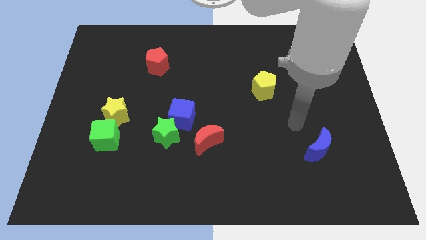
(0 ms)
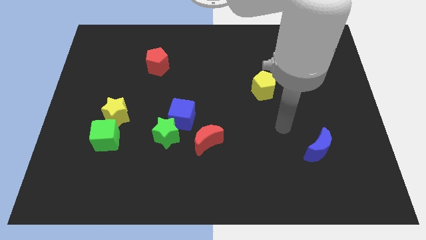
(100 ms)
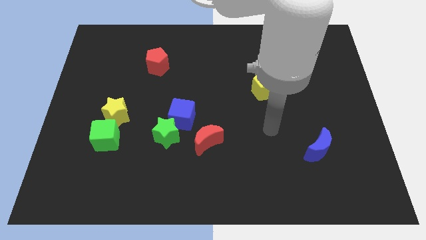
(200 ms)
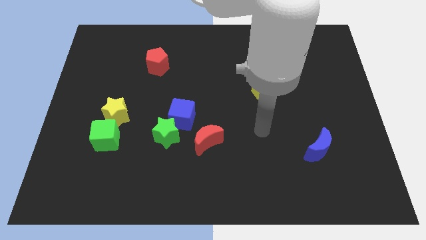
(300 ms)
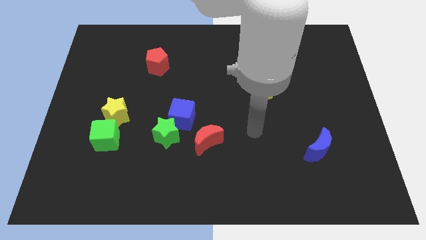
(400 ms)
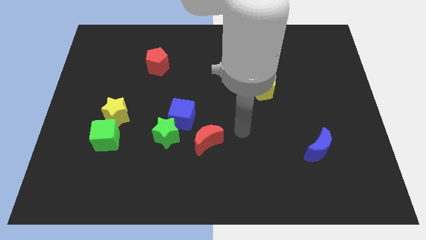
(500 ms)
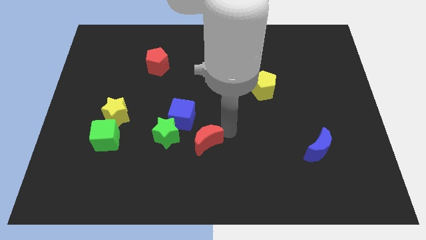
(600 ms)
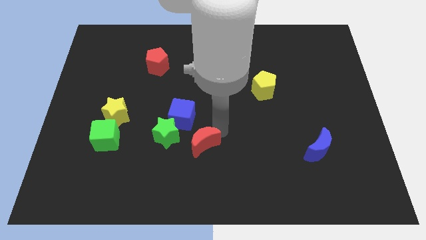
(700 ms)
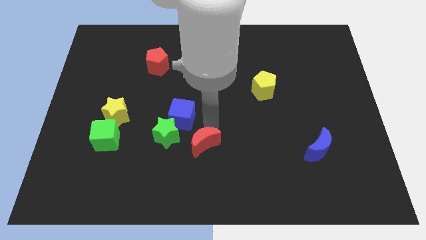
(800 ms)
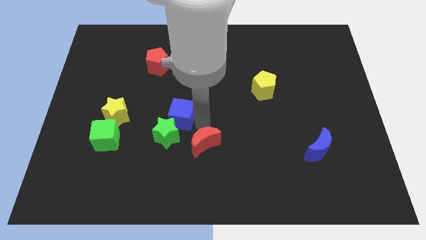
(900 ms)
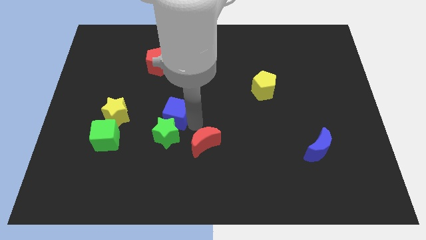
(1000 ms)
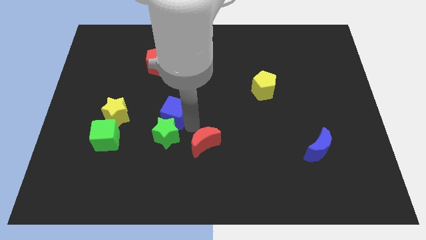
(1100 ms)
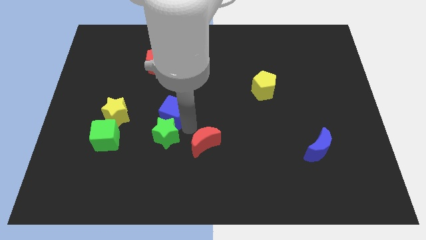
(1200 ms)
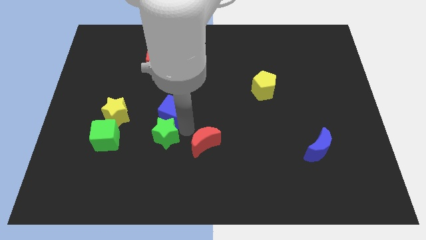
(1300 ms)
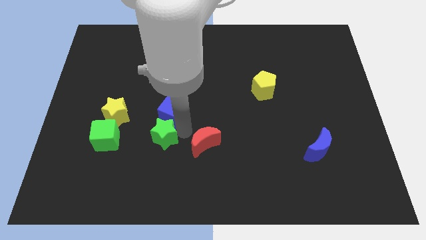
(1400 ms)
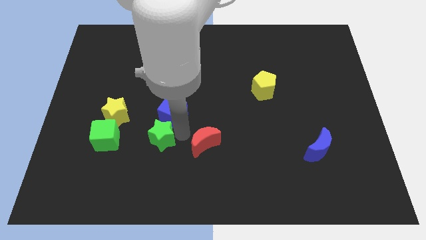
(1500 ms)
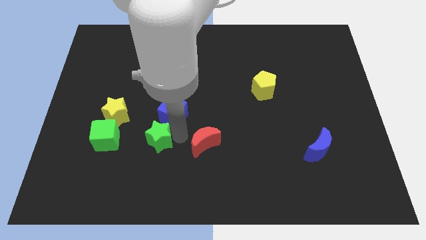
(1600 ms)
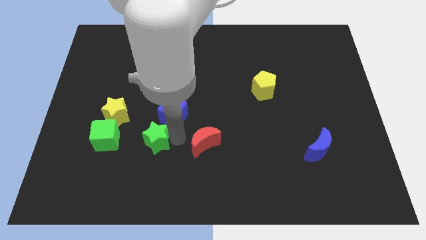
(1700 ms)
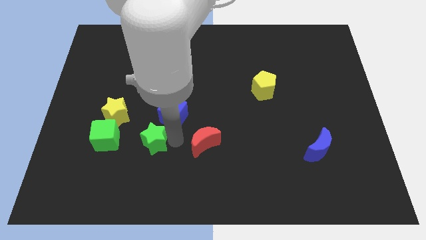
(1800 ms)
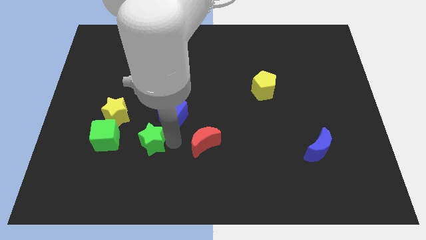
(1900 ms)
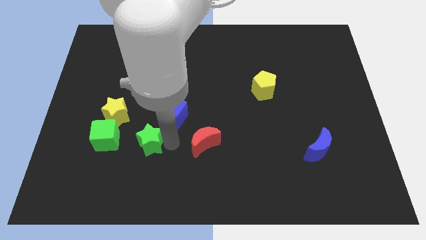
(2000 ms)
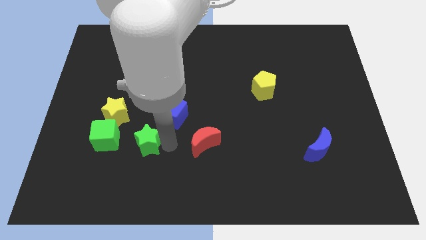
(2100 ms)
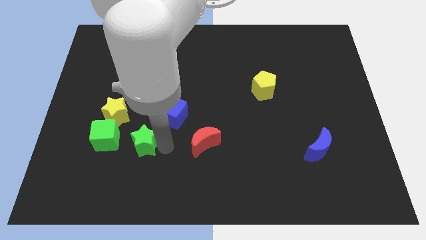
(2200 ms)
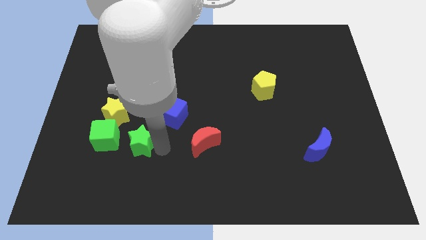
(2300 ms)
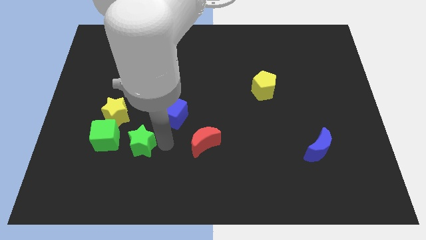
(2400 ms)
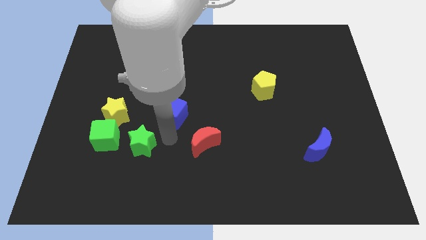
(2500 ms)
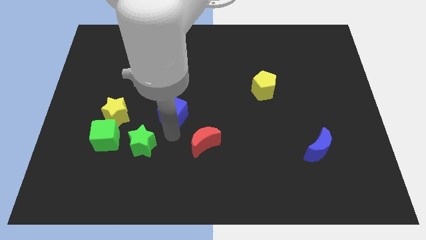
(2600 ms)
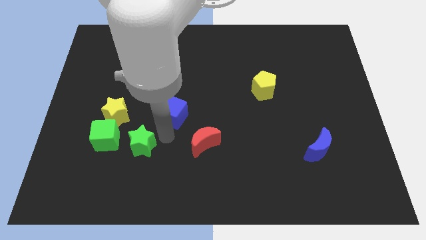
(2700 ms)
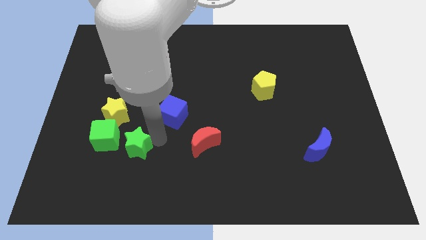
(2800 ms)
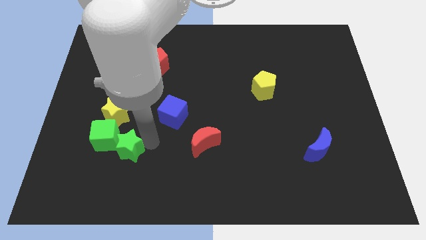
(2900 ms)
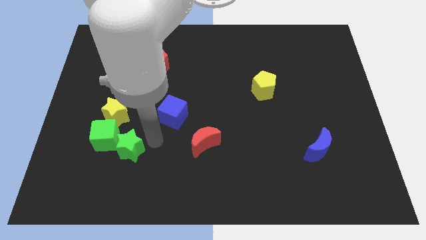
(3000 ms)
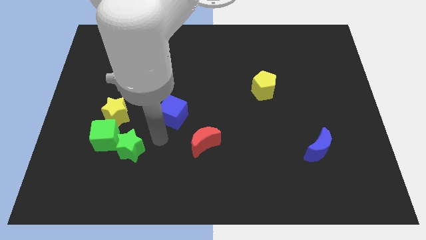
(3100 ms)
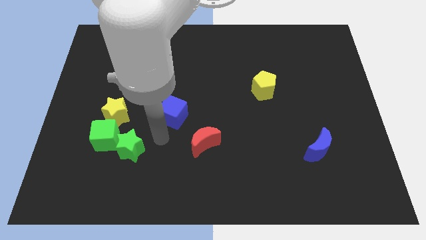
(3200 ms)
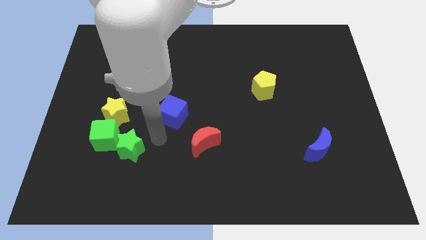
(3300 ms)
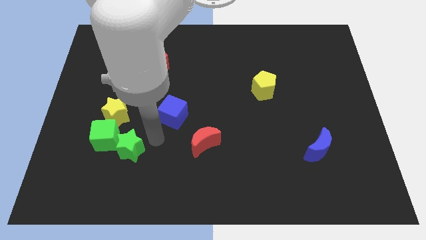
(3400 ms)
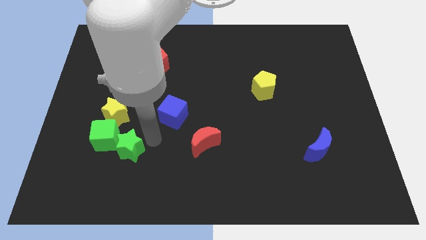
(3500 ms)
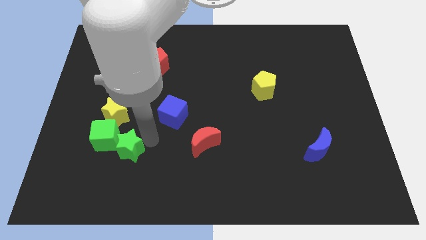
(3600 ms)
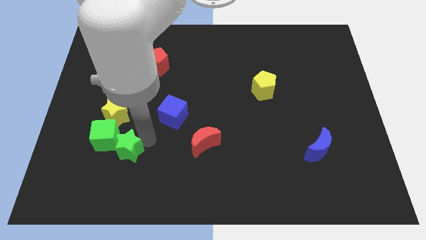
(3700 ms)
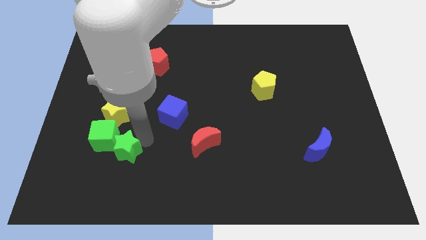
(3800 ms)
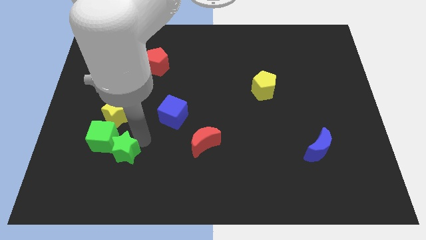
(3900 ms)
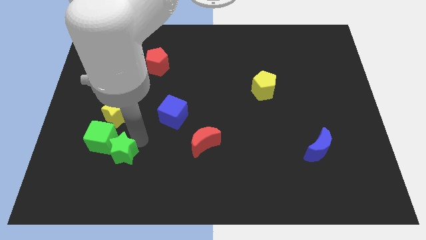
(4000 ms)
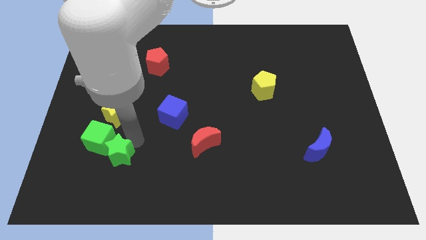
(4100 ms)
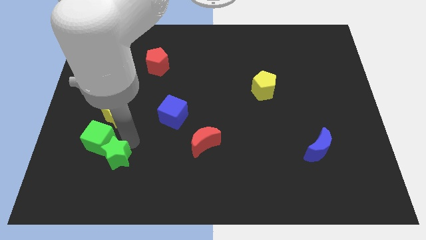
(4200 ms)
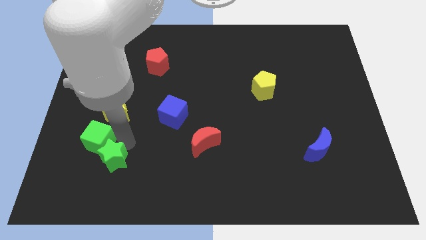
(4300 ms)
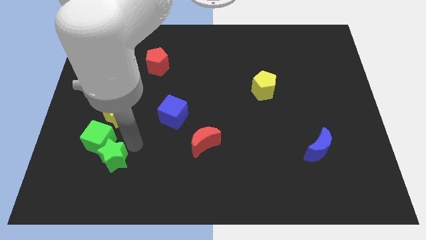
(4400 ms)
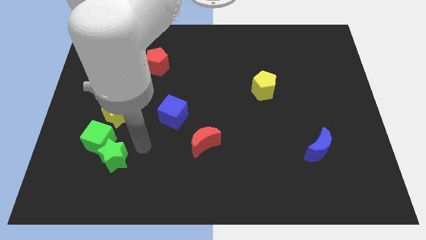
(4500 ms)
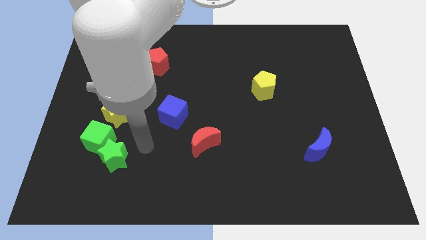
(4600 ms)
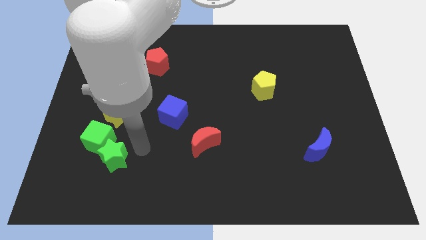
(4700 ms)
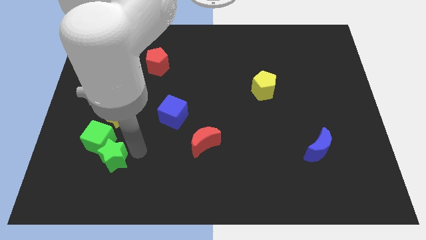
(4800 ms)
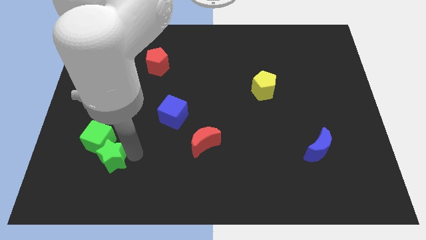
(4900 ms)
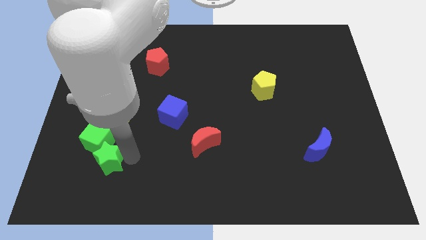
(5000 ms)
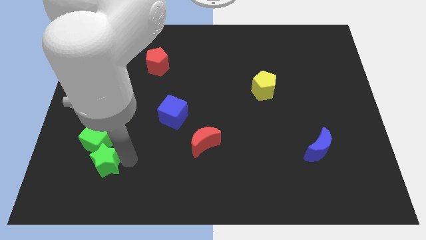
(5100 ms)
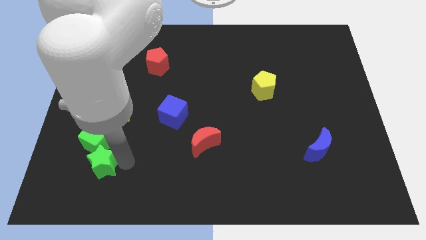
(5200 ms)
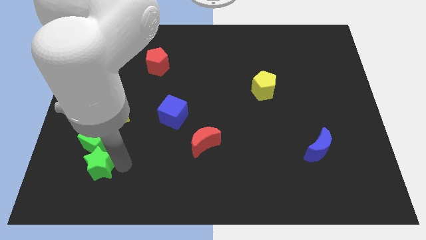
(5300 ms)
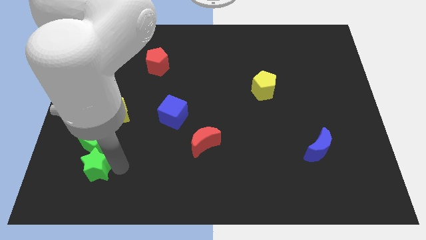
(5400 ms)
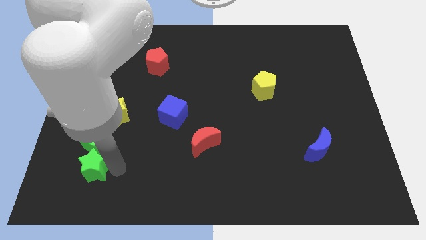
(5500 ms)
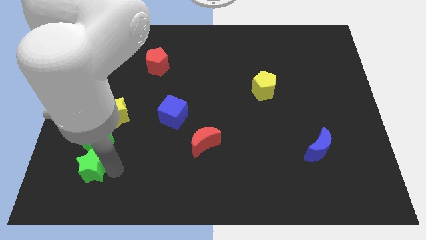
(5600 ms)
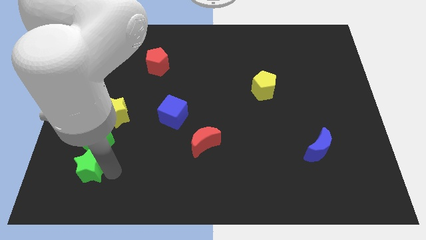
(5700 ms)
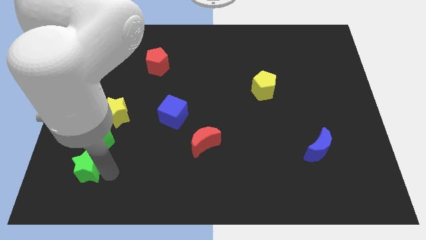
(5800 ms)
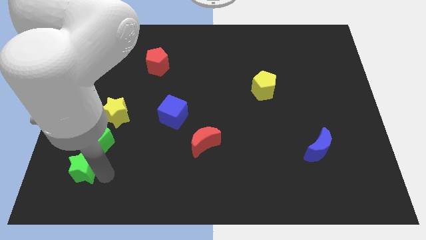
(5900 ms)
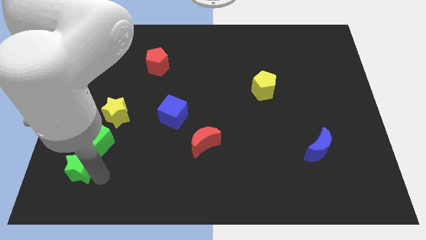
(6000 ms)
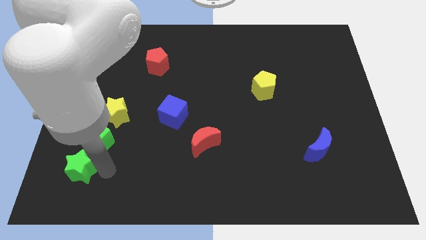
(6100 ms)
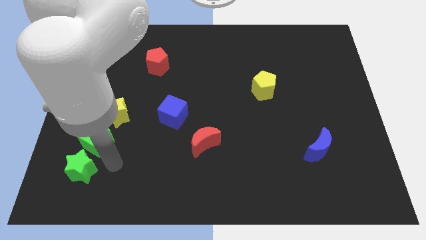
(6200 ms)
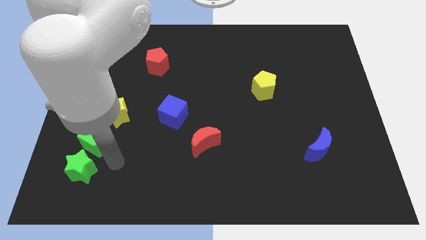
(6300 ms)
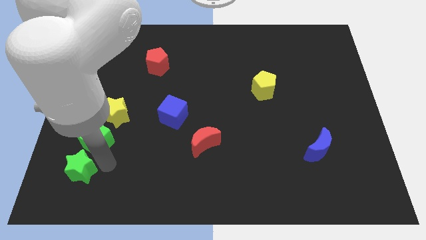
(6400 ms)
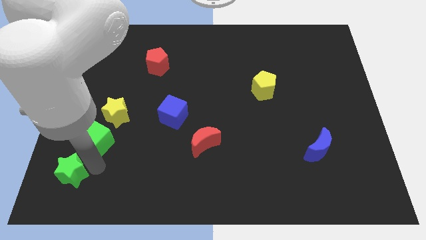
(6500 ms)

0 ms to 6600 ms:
put the green star to the bottom left of the board

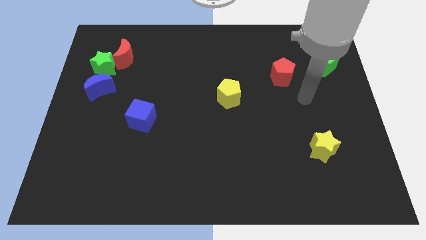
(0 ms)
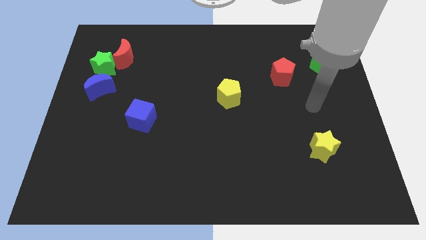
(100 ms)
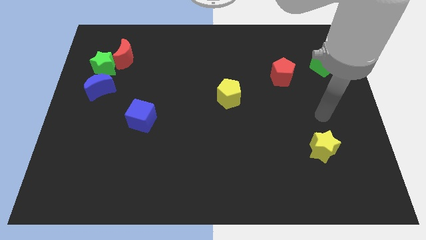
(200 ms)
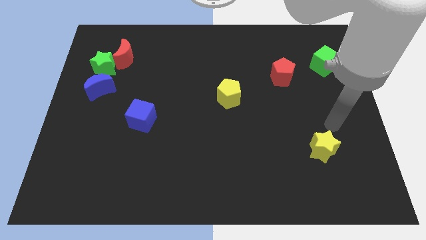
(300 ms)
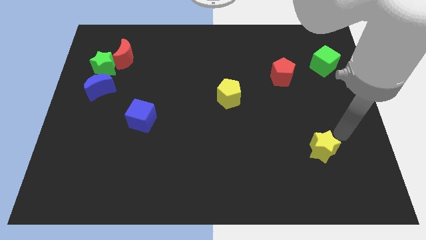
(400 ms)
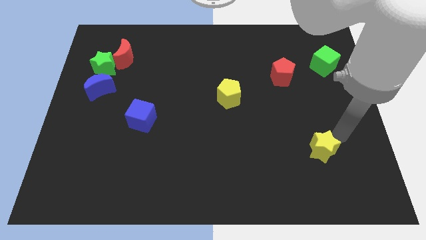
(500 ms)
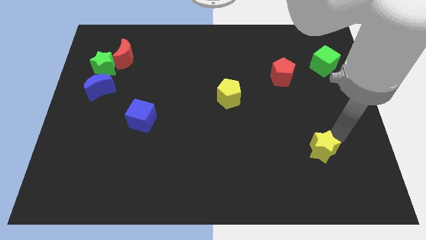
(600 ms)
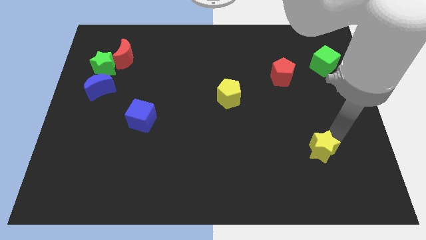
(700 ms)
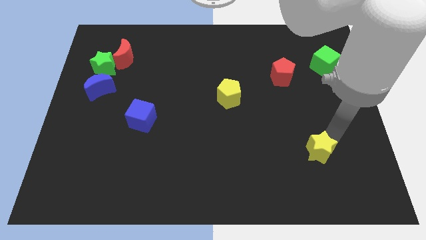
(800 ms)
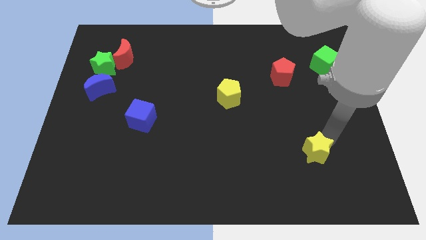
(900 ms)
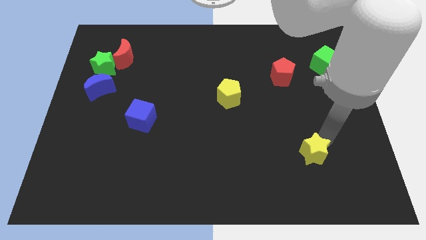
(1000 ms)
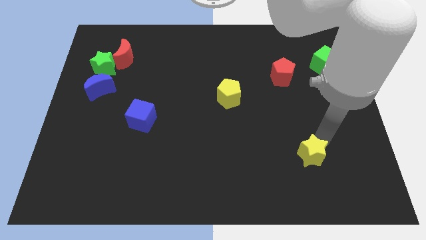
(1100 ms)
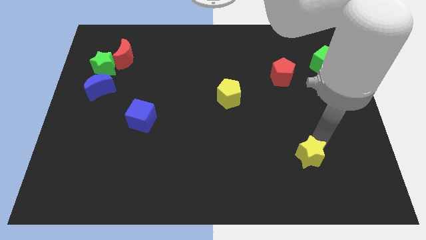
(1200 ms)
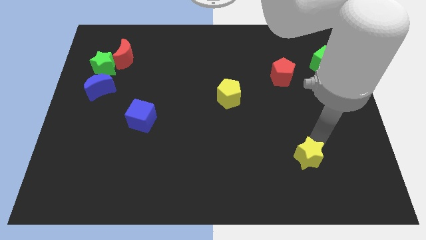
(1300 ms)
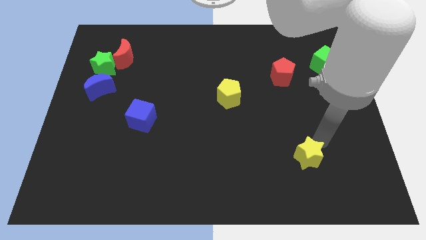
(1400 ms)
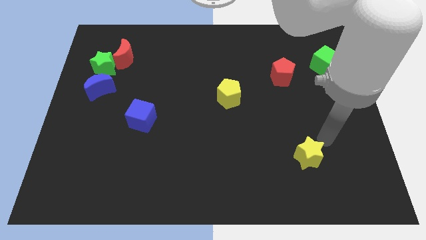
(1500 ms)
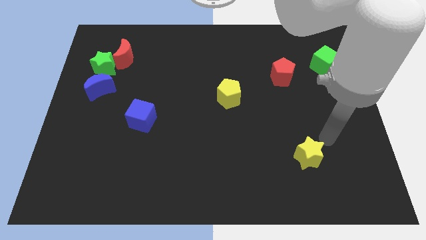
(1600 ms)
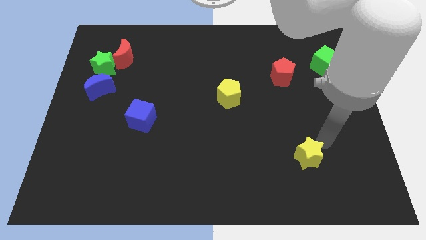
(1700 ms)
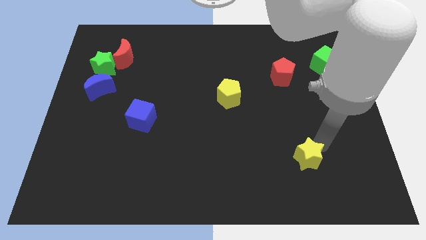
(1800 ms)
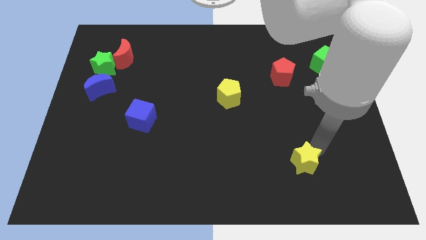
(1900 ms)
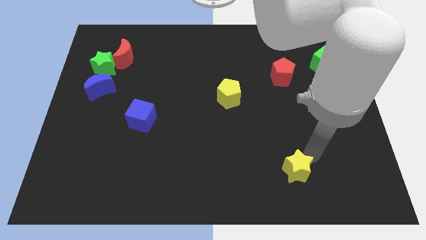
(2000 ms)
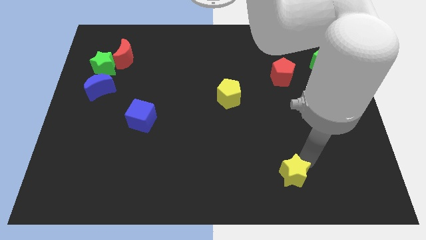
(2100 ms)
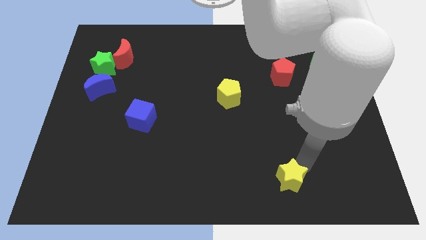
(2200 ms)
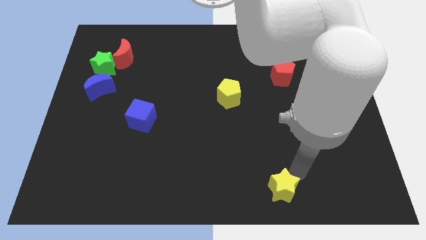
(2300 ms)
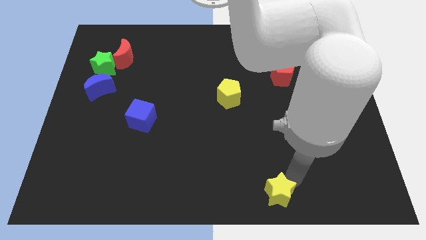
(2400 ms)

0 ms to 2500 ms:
push the yellow star to the bottom side
